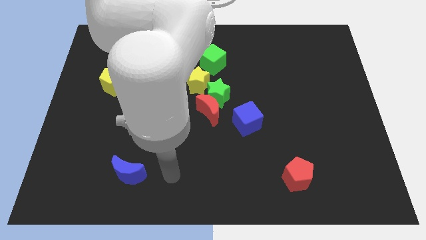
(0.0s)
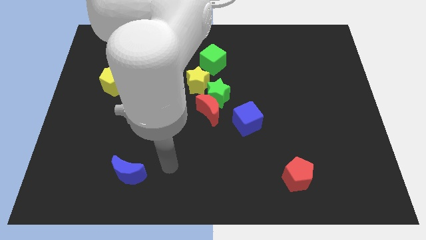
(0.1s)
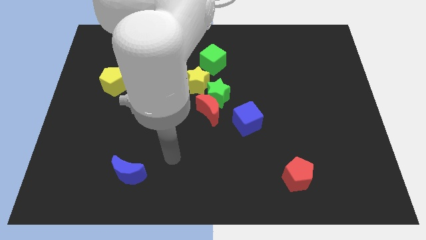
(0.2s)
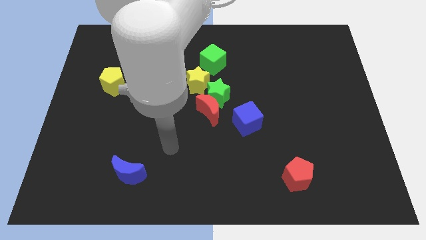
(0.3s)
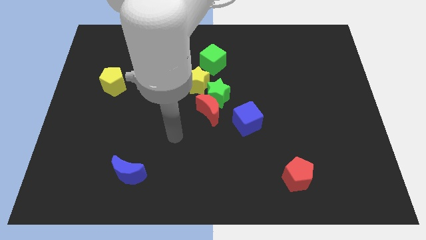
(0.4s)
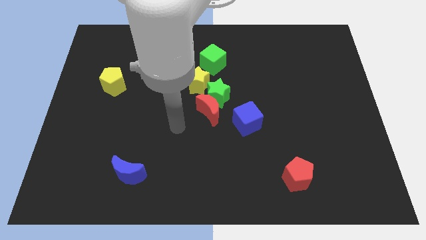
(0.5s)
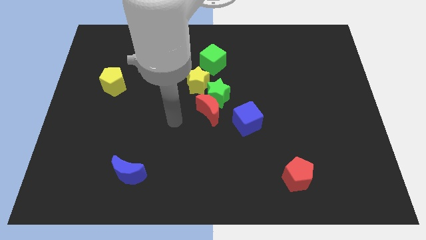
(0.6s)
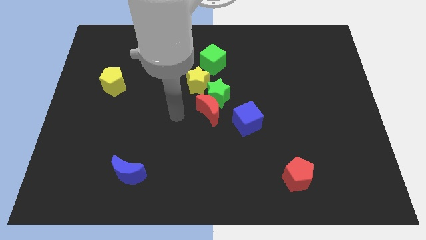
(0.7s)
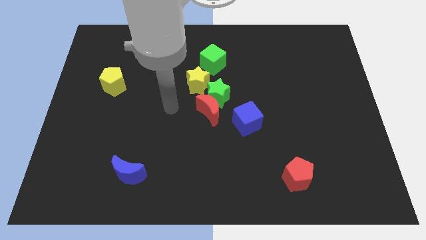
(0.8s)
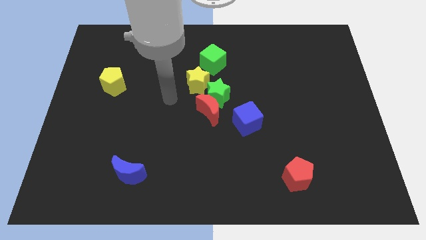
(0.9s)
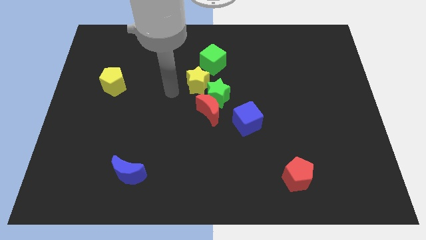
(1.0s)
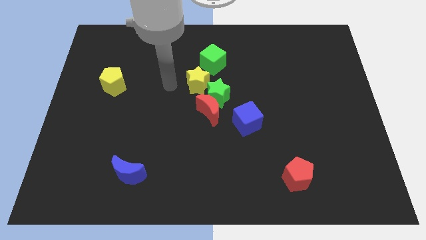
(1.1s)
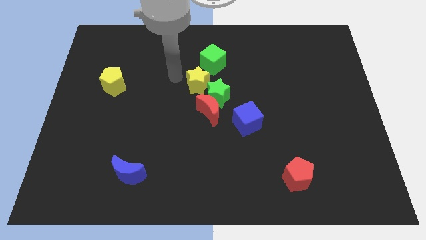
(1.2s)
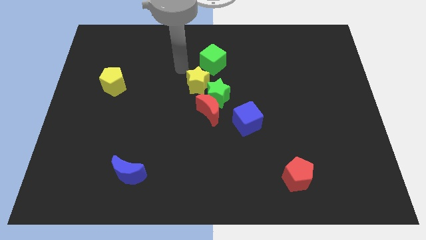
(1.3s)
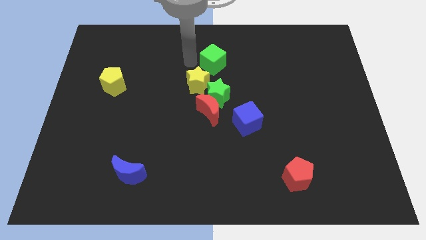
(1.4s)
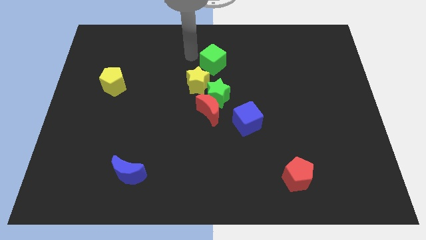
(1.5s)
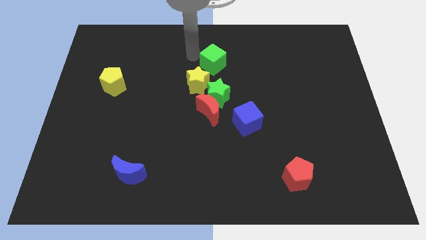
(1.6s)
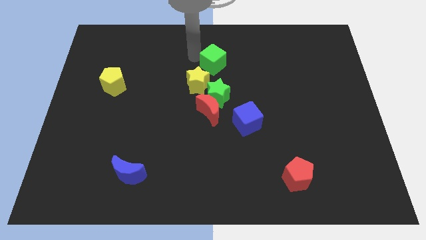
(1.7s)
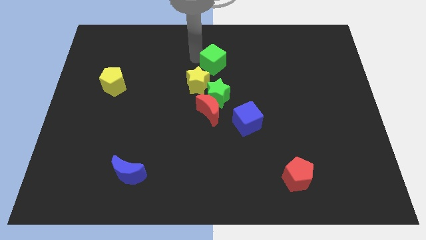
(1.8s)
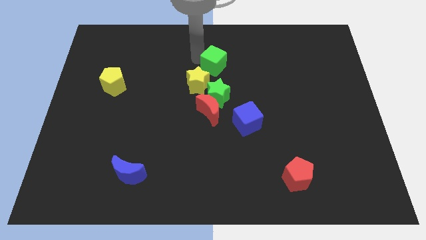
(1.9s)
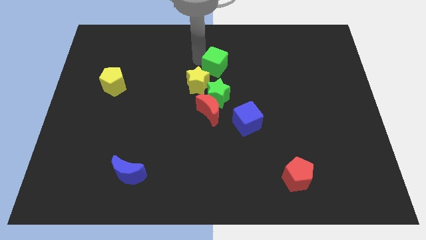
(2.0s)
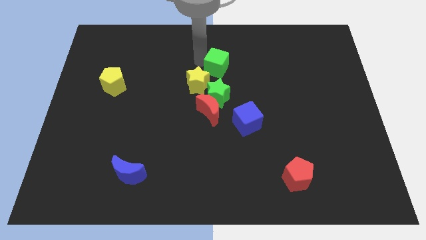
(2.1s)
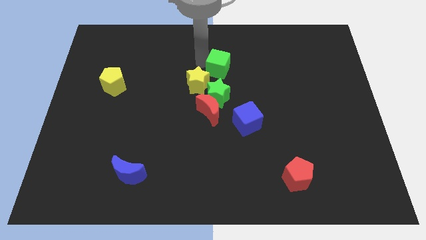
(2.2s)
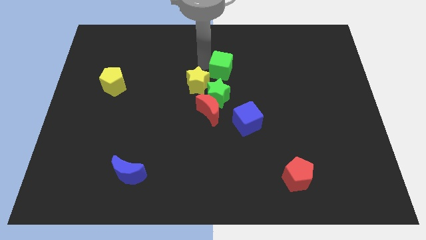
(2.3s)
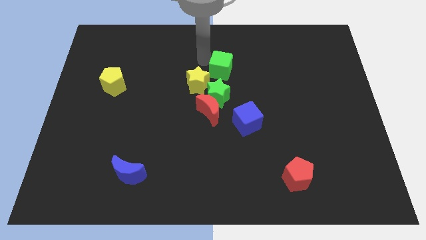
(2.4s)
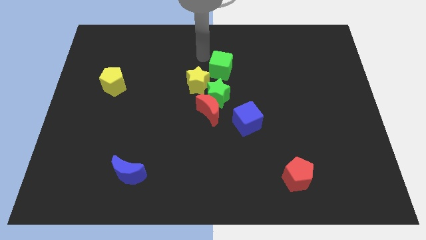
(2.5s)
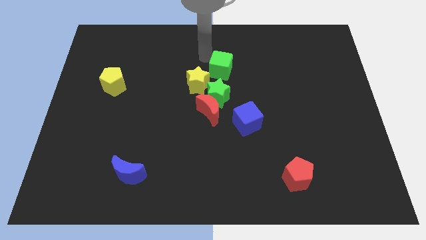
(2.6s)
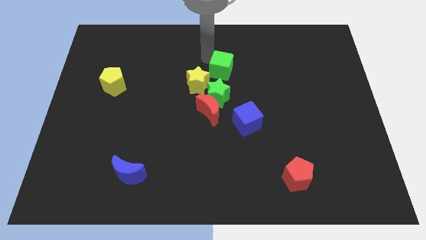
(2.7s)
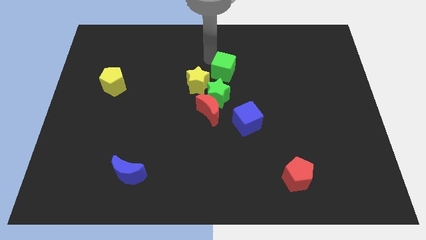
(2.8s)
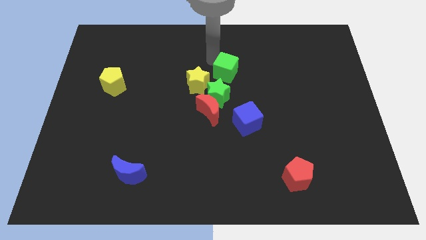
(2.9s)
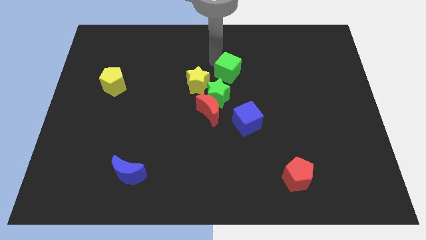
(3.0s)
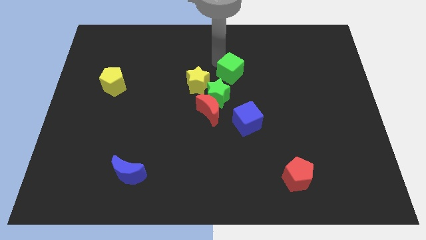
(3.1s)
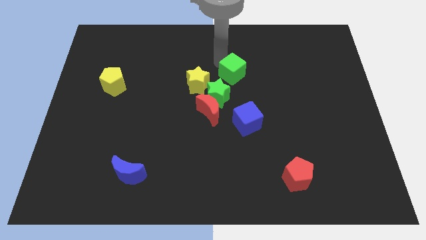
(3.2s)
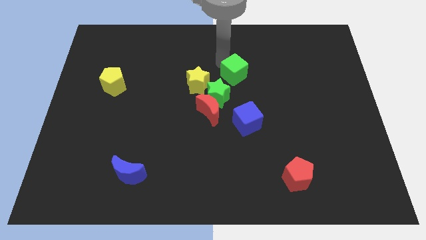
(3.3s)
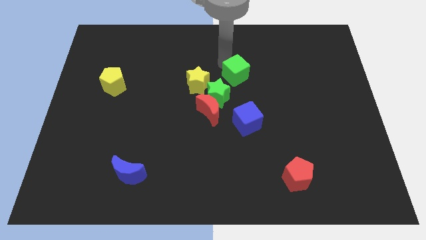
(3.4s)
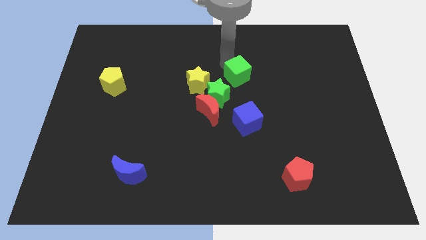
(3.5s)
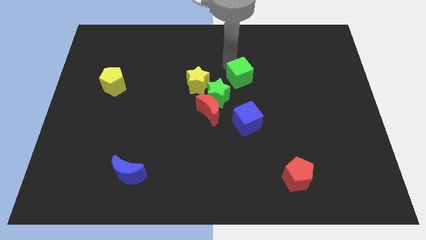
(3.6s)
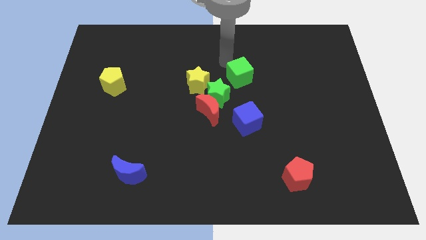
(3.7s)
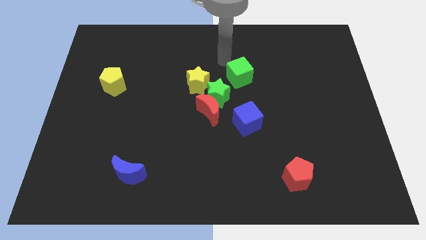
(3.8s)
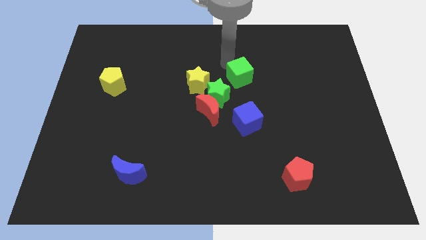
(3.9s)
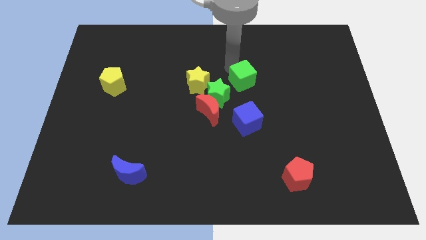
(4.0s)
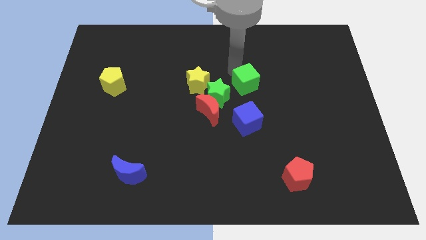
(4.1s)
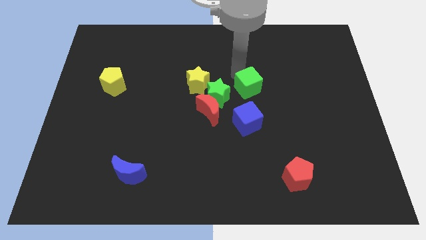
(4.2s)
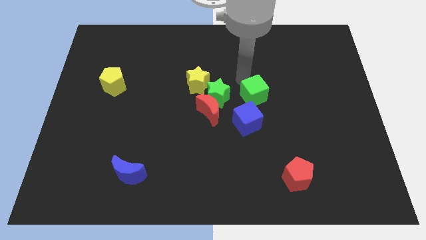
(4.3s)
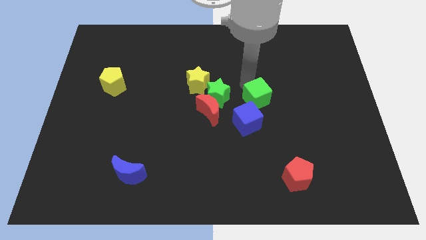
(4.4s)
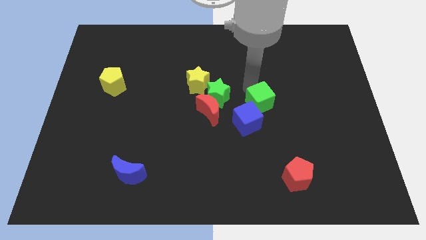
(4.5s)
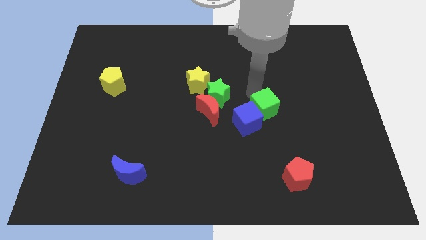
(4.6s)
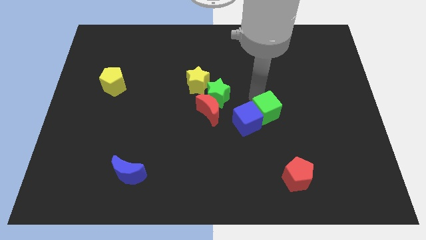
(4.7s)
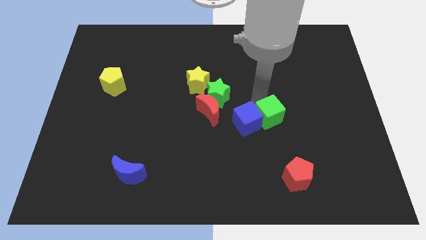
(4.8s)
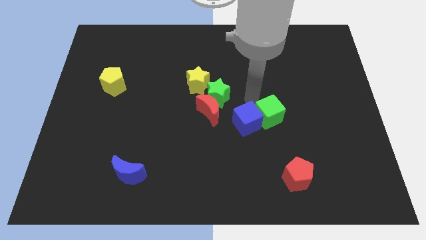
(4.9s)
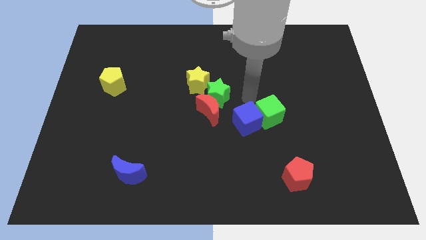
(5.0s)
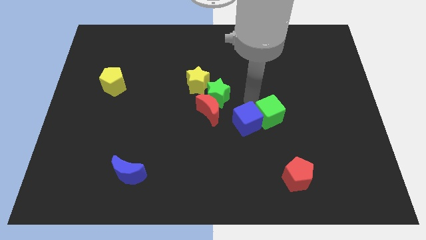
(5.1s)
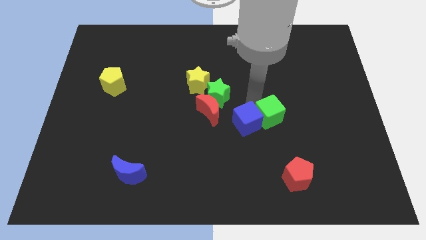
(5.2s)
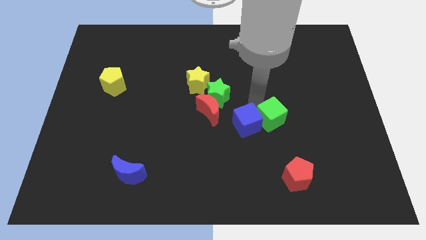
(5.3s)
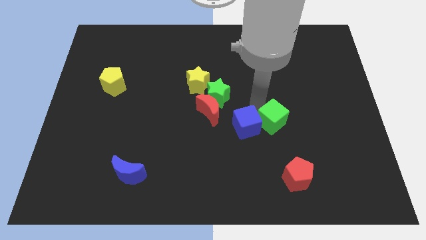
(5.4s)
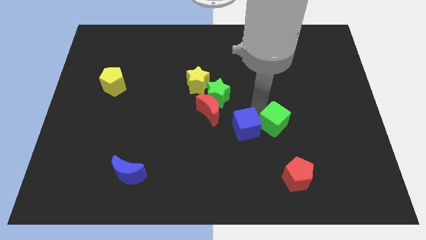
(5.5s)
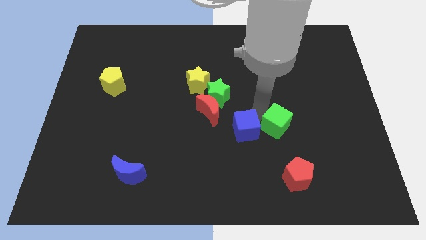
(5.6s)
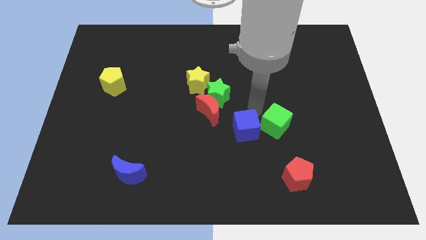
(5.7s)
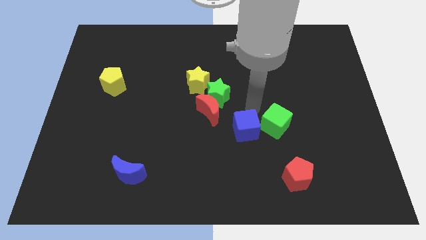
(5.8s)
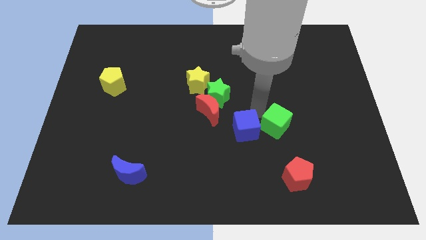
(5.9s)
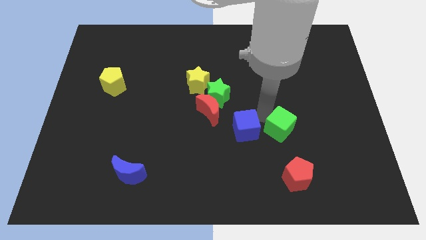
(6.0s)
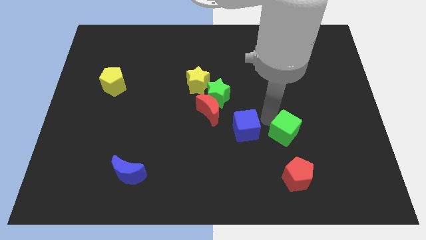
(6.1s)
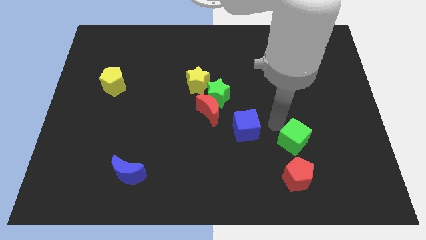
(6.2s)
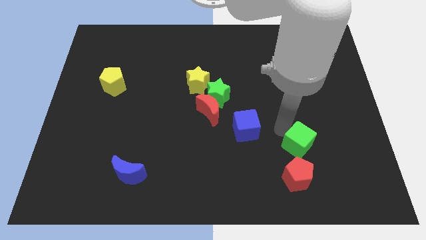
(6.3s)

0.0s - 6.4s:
slide the green cube diagonally up and to the right of the red pentagon
